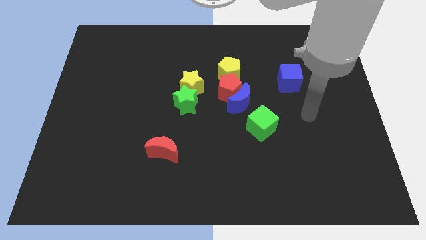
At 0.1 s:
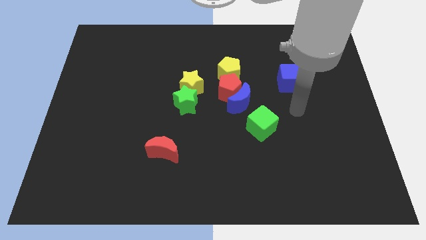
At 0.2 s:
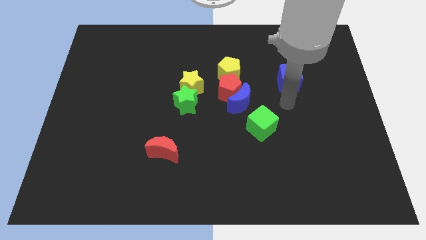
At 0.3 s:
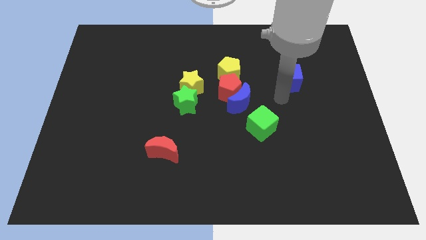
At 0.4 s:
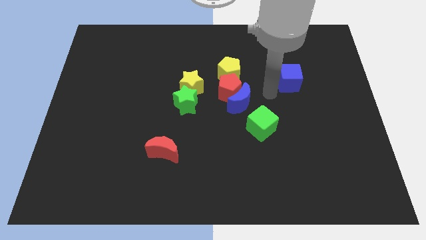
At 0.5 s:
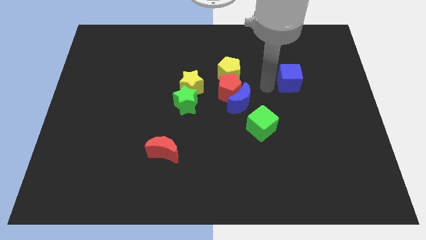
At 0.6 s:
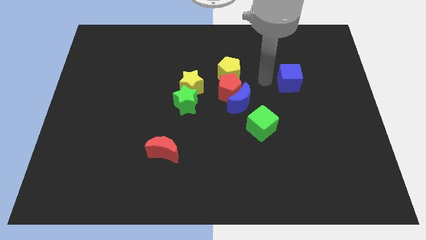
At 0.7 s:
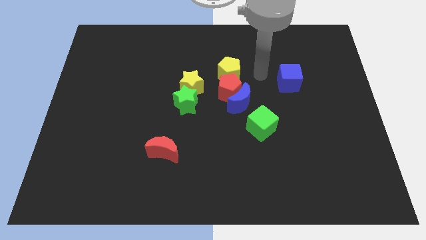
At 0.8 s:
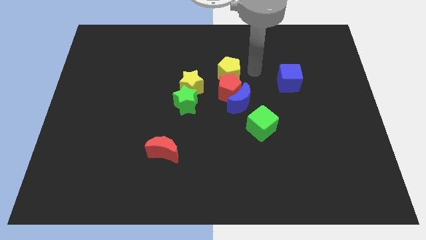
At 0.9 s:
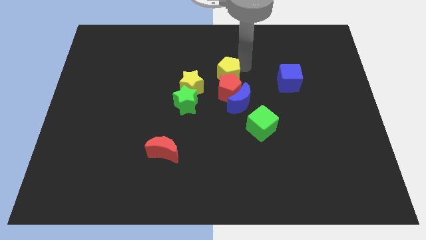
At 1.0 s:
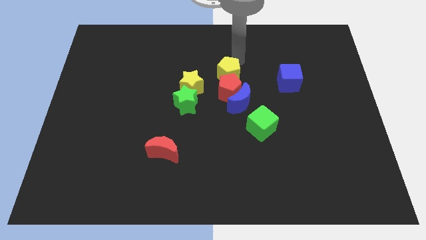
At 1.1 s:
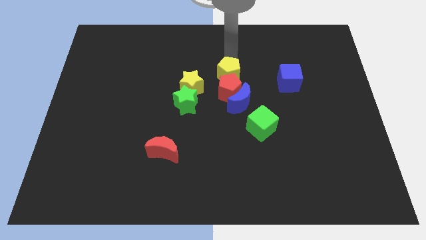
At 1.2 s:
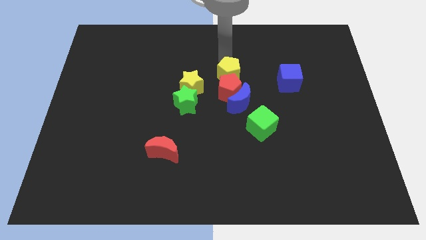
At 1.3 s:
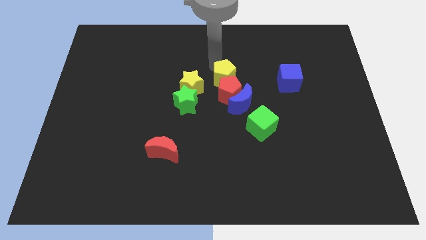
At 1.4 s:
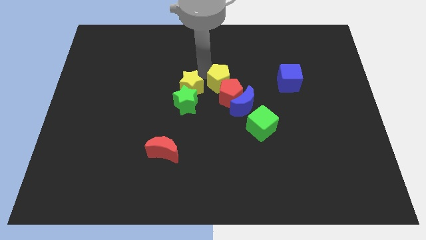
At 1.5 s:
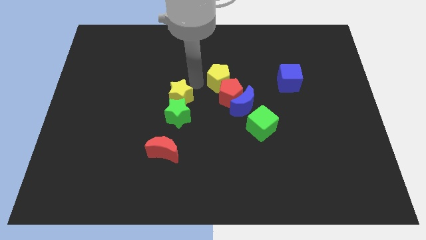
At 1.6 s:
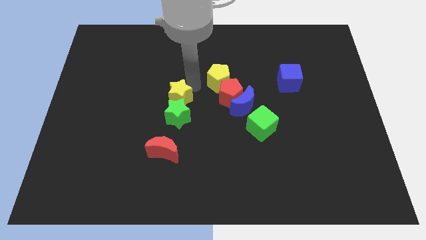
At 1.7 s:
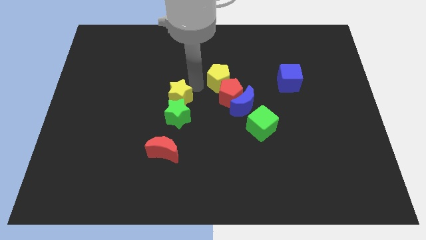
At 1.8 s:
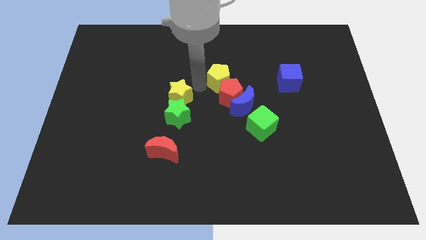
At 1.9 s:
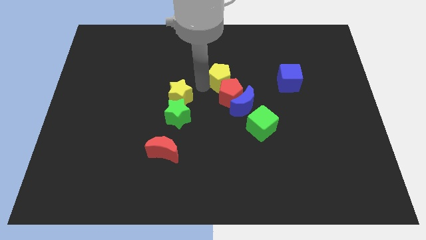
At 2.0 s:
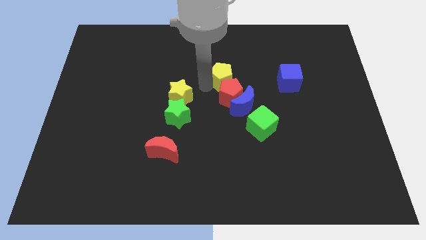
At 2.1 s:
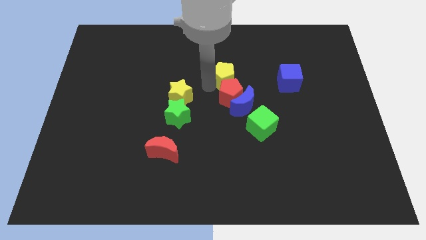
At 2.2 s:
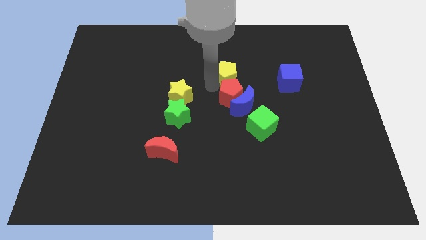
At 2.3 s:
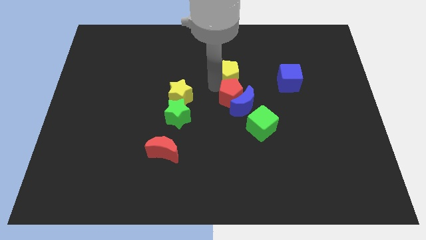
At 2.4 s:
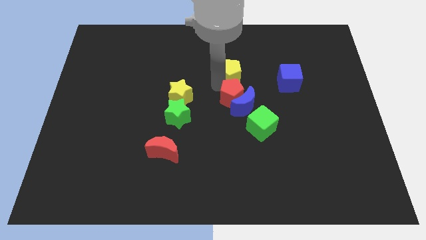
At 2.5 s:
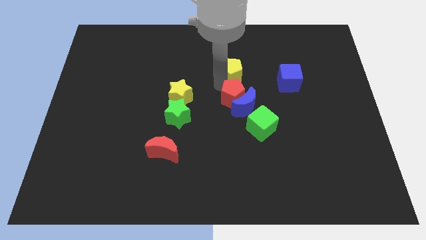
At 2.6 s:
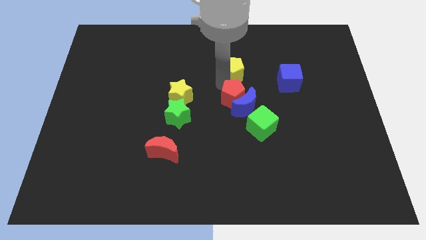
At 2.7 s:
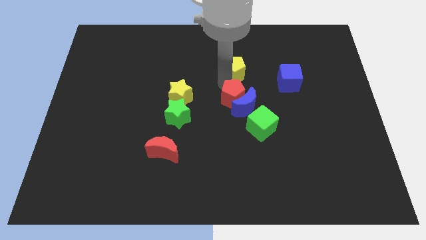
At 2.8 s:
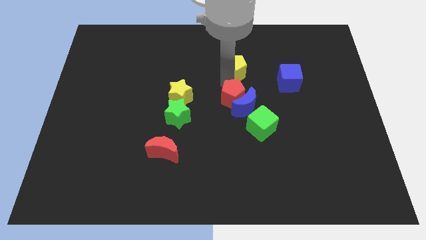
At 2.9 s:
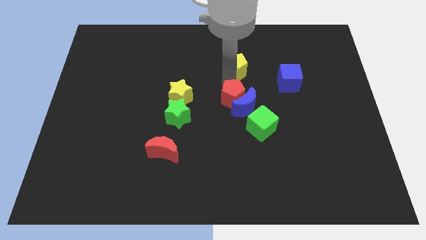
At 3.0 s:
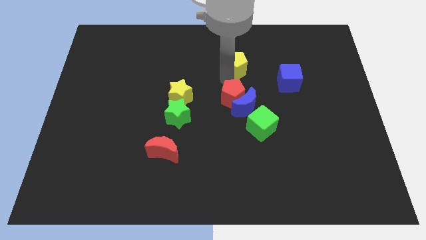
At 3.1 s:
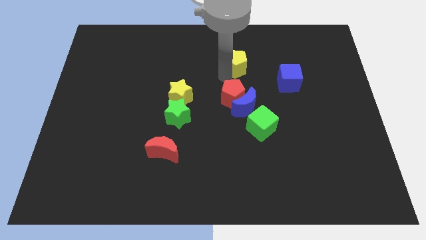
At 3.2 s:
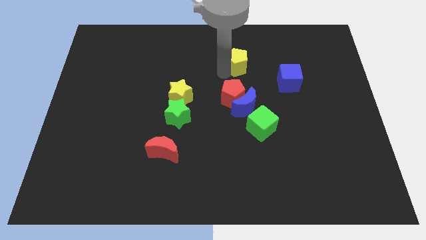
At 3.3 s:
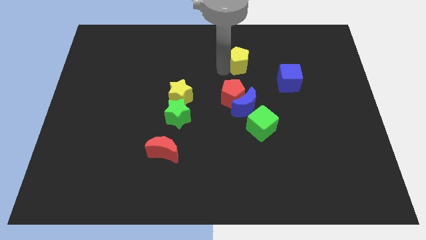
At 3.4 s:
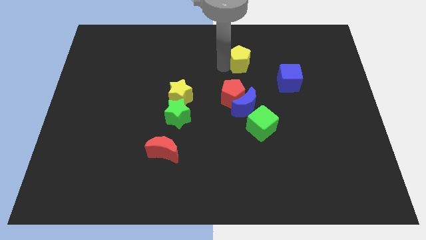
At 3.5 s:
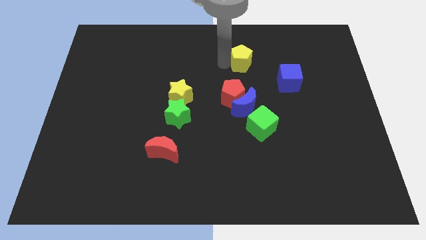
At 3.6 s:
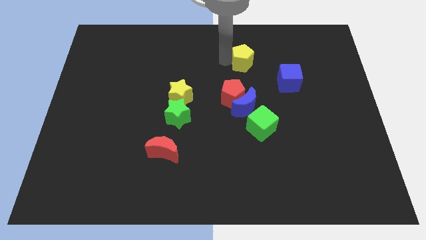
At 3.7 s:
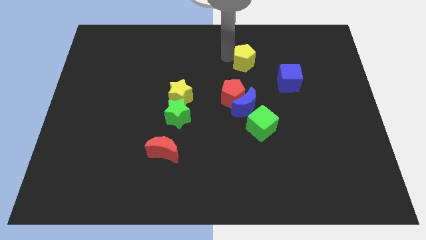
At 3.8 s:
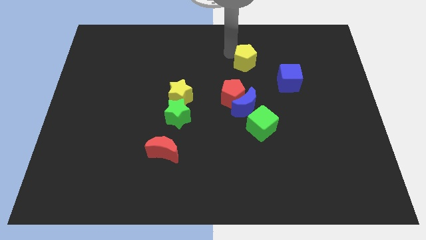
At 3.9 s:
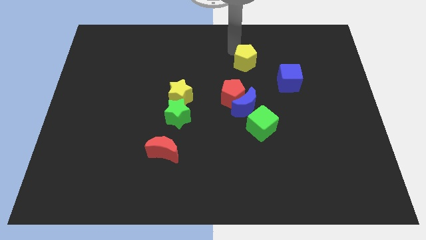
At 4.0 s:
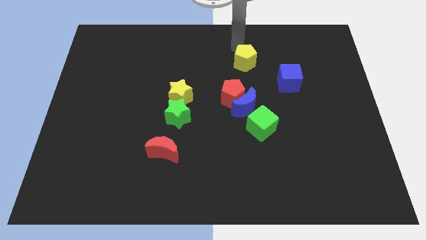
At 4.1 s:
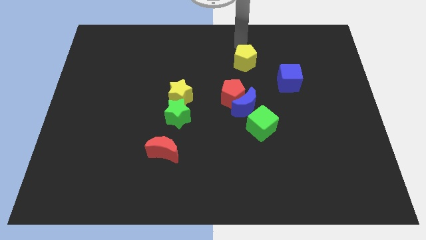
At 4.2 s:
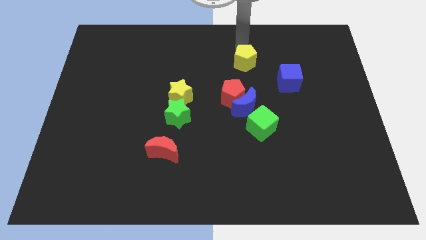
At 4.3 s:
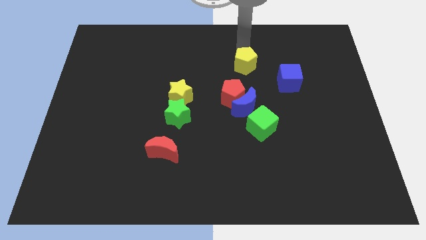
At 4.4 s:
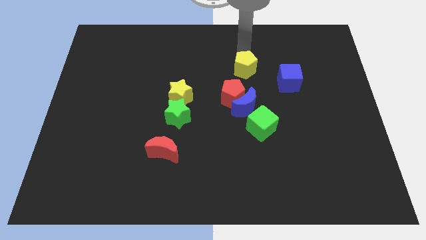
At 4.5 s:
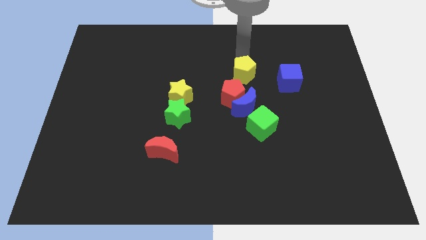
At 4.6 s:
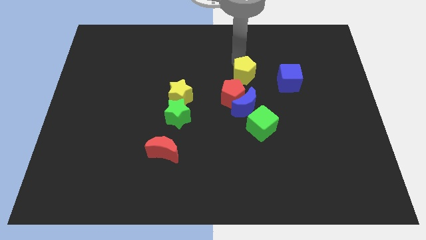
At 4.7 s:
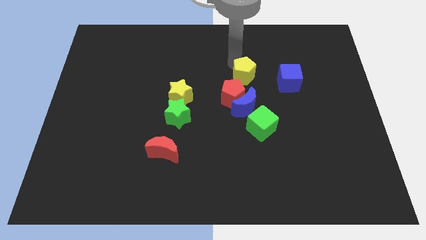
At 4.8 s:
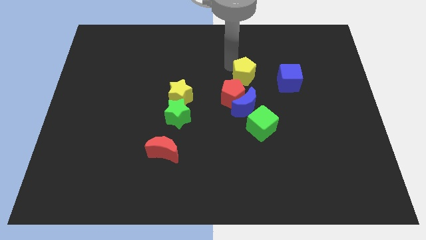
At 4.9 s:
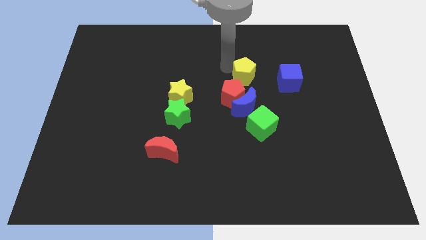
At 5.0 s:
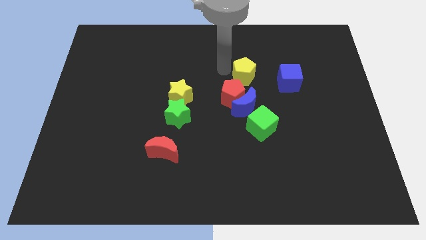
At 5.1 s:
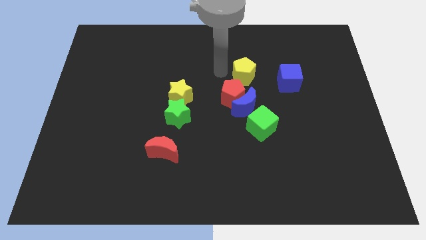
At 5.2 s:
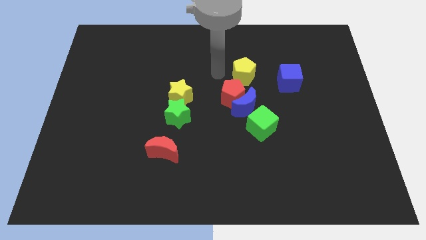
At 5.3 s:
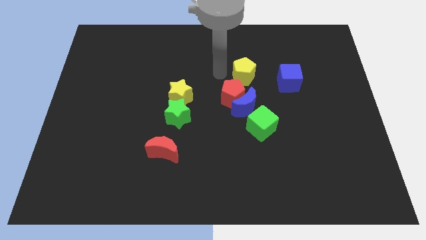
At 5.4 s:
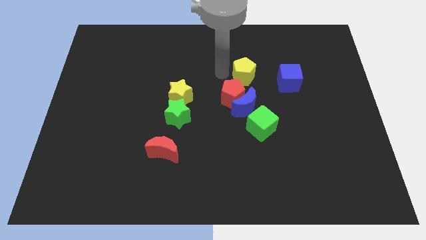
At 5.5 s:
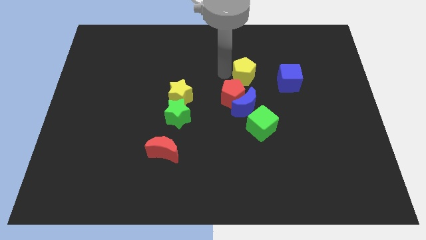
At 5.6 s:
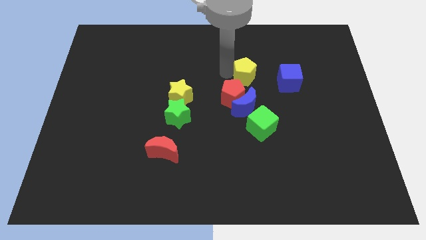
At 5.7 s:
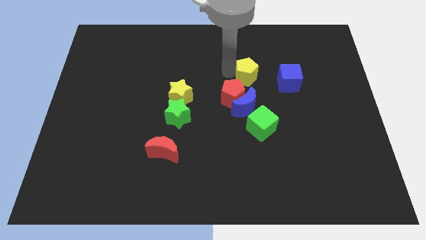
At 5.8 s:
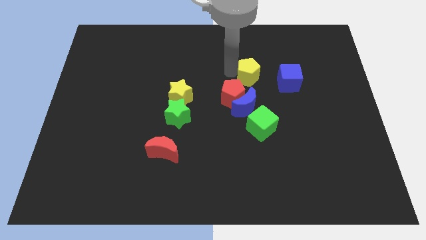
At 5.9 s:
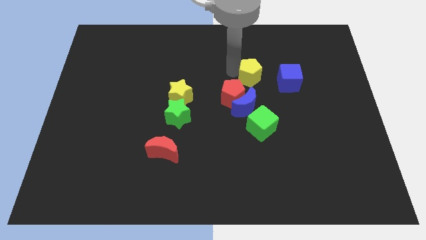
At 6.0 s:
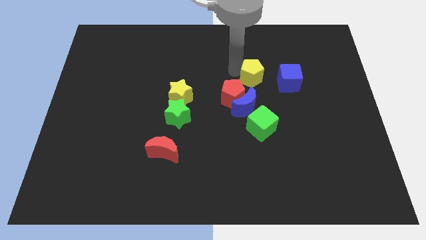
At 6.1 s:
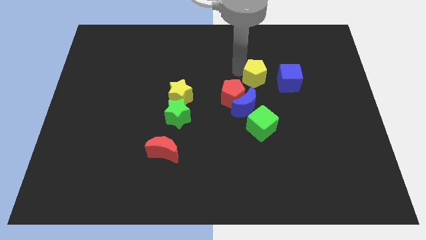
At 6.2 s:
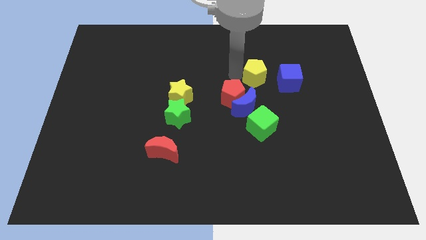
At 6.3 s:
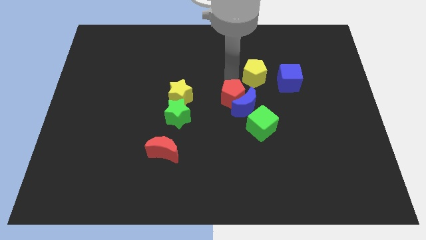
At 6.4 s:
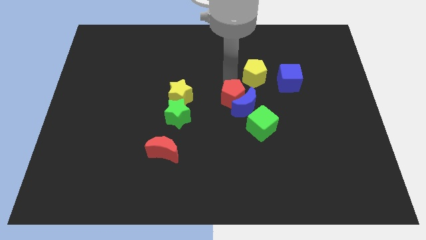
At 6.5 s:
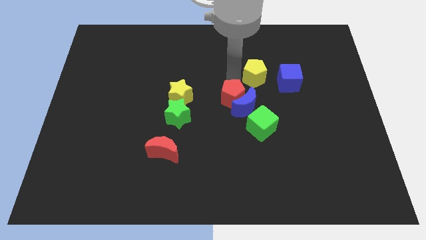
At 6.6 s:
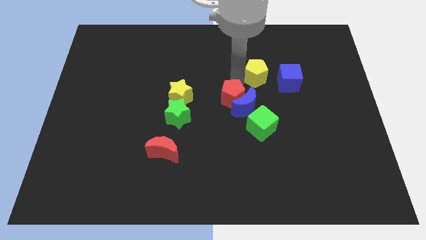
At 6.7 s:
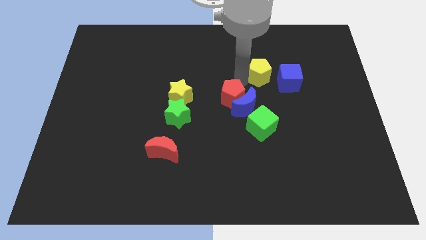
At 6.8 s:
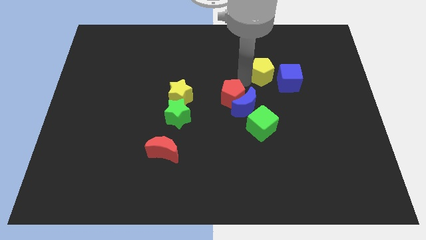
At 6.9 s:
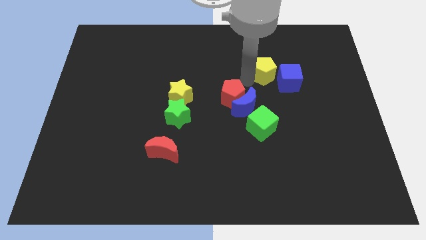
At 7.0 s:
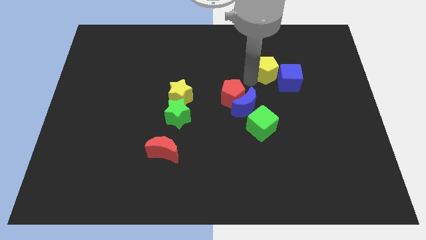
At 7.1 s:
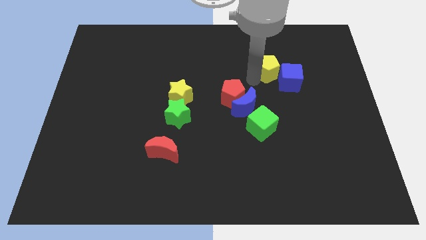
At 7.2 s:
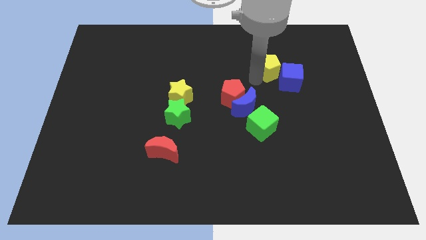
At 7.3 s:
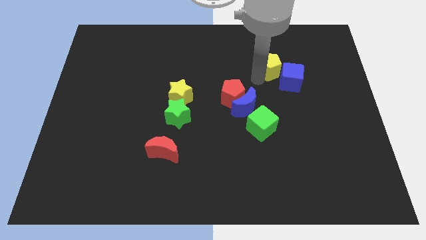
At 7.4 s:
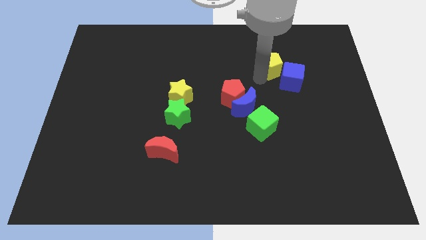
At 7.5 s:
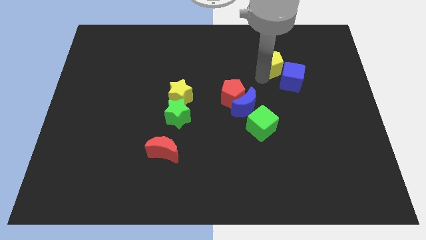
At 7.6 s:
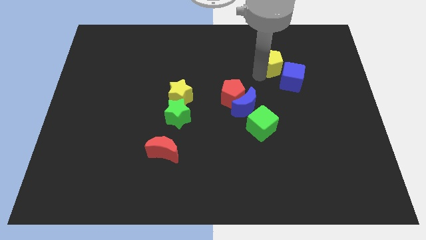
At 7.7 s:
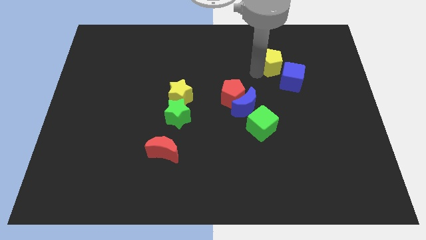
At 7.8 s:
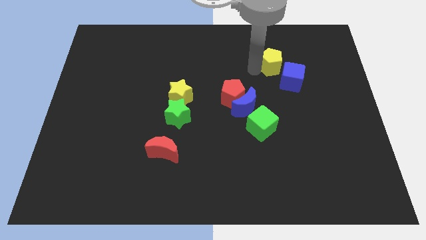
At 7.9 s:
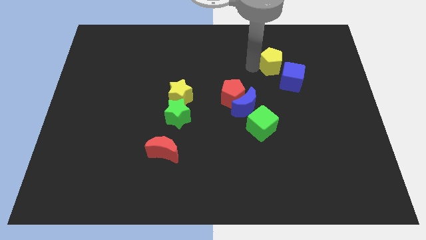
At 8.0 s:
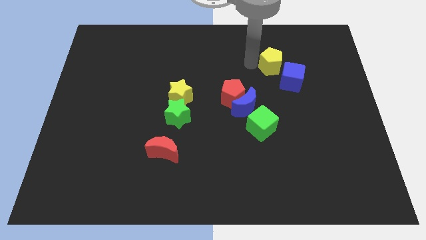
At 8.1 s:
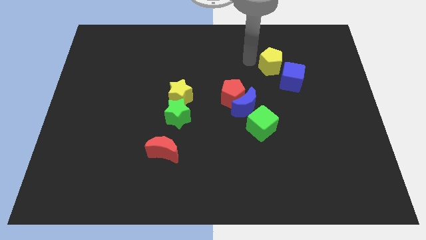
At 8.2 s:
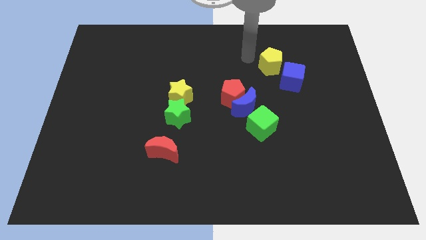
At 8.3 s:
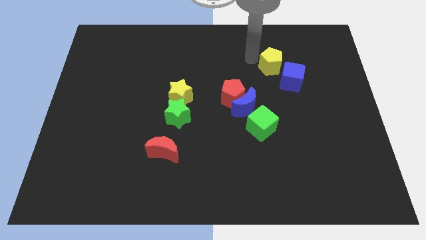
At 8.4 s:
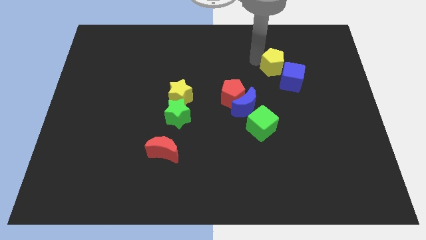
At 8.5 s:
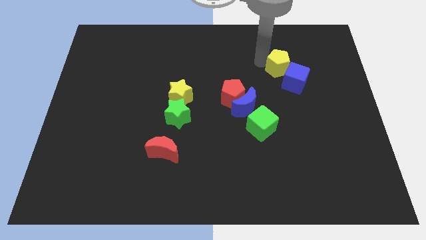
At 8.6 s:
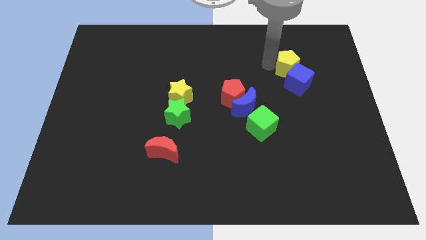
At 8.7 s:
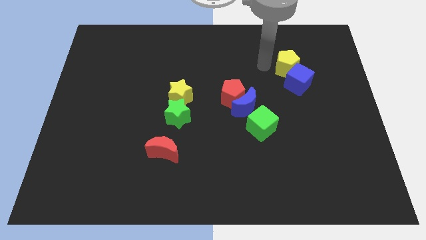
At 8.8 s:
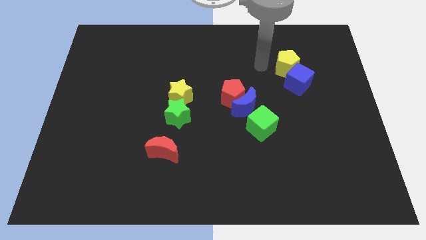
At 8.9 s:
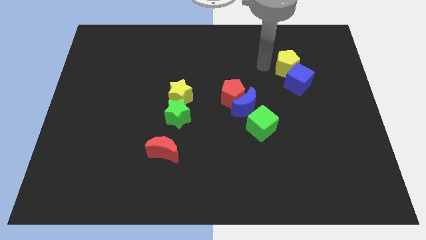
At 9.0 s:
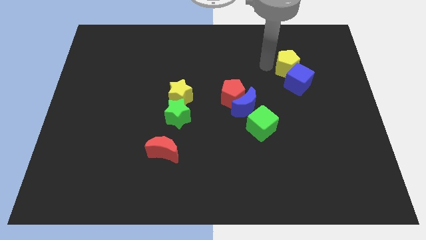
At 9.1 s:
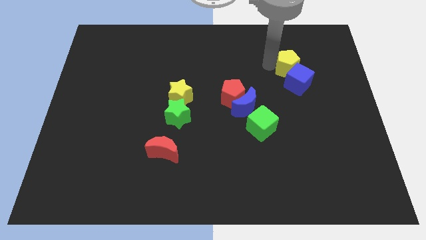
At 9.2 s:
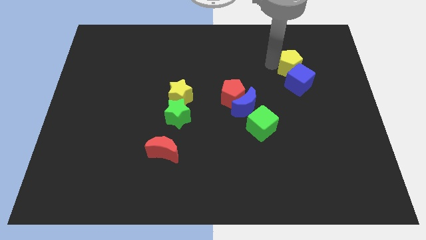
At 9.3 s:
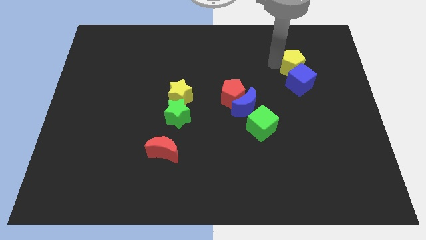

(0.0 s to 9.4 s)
put the yellow pentagon to the top right side of the blue cube
